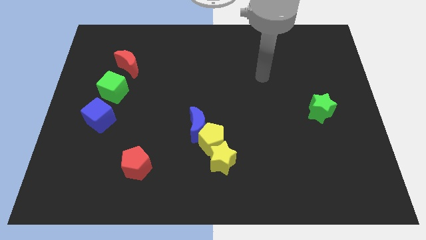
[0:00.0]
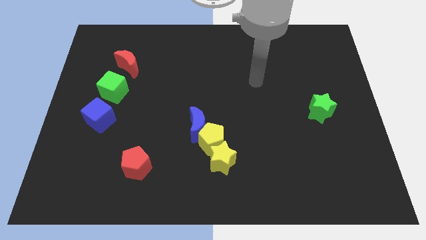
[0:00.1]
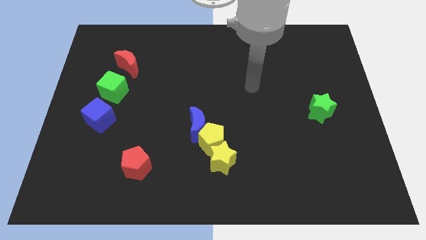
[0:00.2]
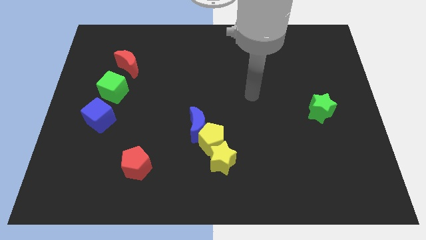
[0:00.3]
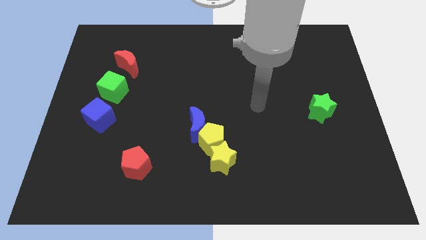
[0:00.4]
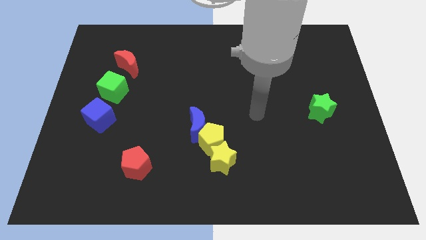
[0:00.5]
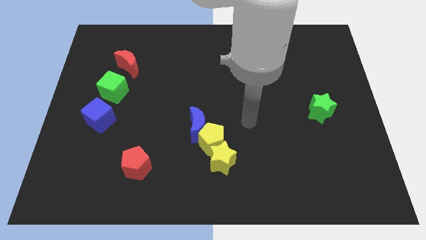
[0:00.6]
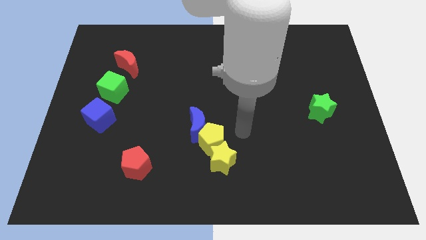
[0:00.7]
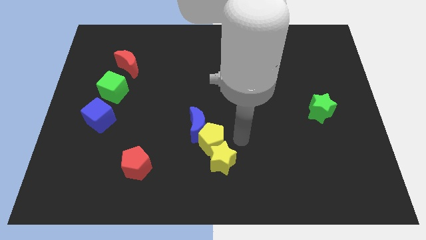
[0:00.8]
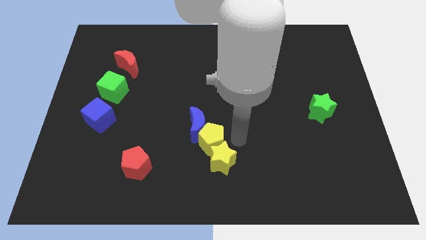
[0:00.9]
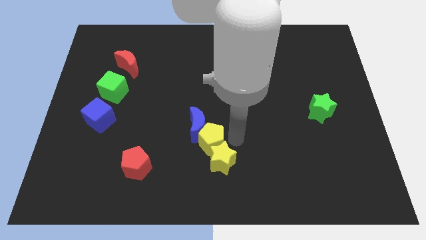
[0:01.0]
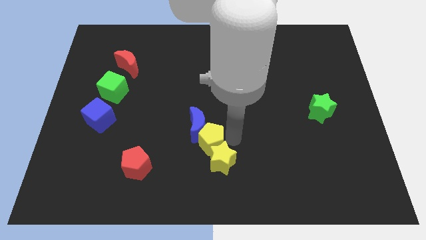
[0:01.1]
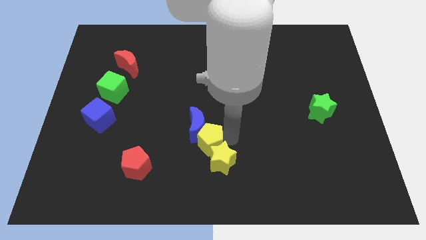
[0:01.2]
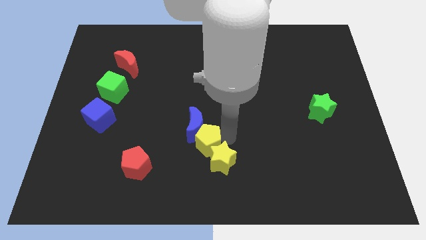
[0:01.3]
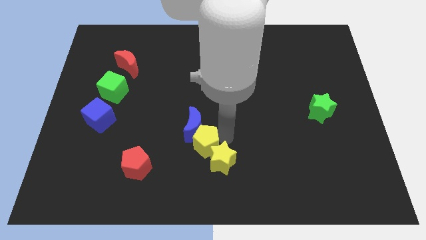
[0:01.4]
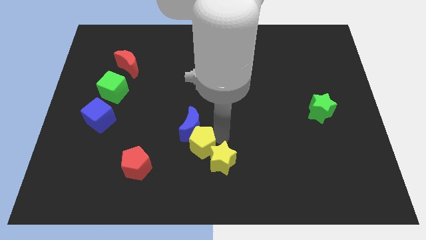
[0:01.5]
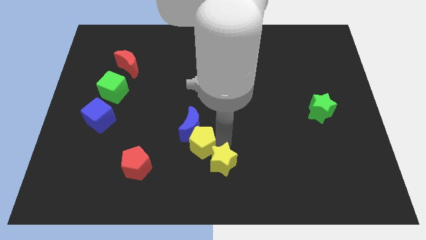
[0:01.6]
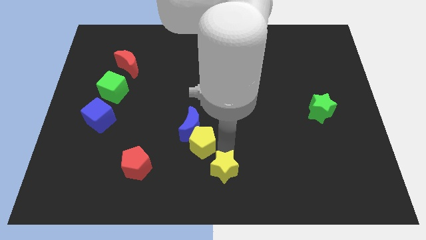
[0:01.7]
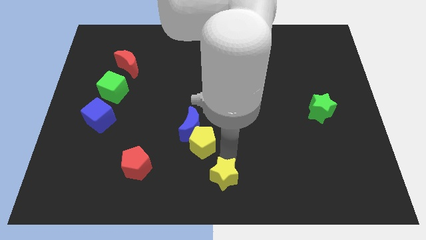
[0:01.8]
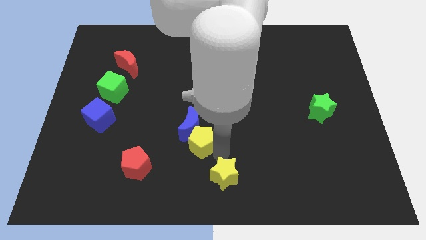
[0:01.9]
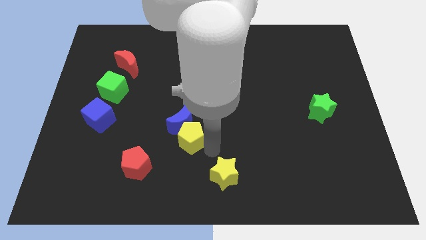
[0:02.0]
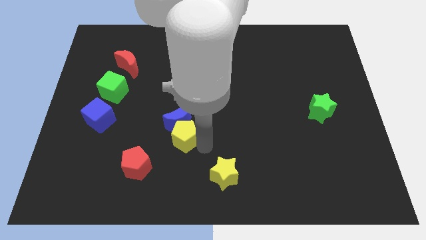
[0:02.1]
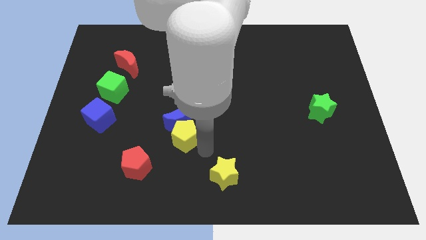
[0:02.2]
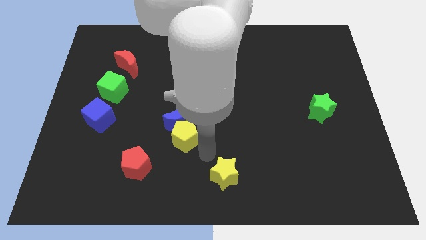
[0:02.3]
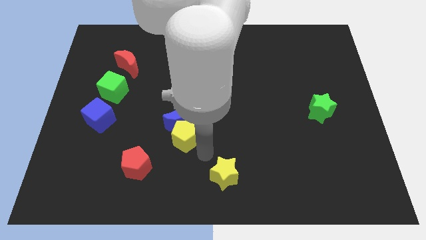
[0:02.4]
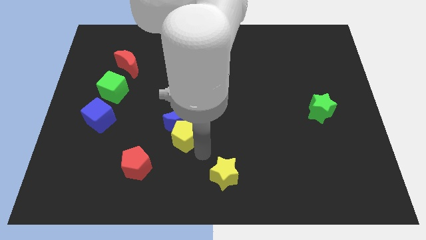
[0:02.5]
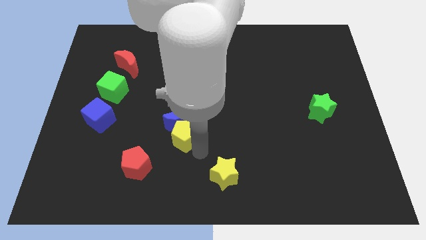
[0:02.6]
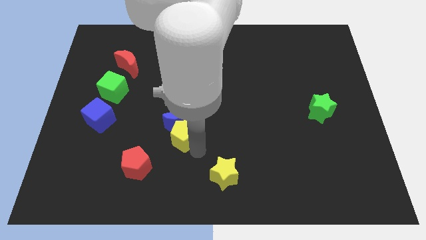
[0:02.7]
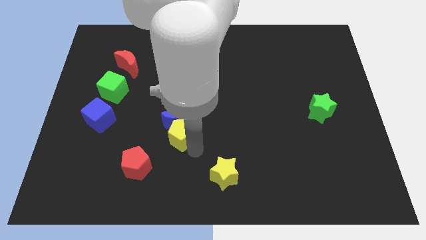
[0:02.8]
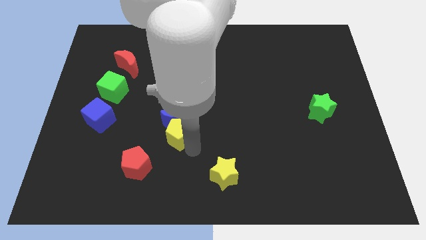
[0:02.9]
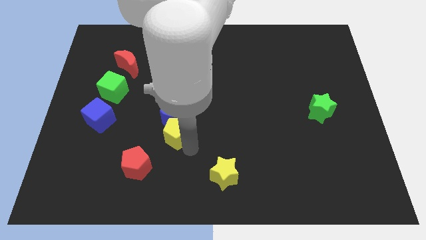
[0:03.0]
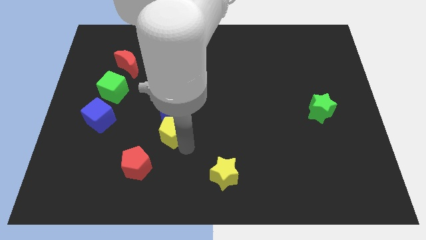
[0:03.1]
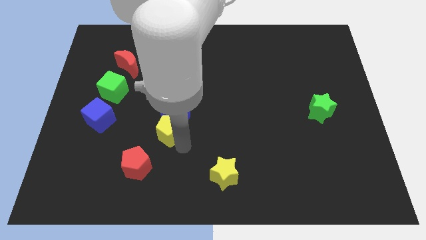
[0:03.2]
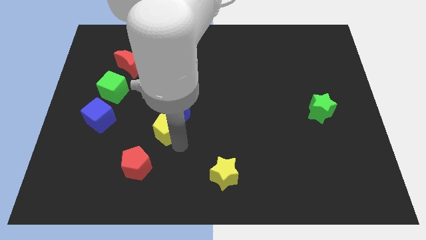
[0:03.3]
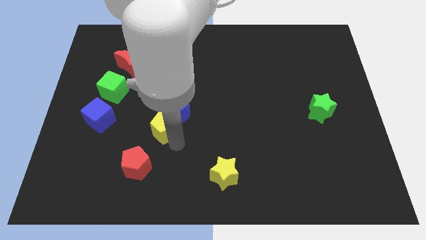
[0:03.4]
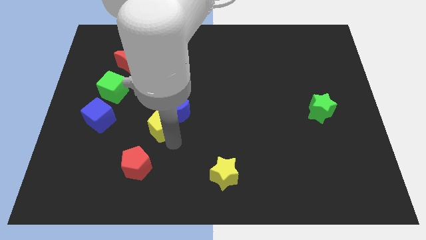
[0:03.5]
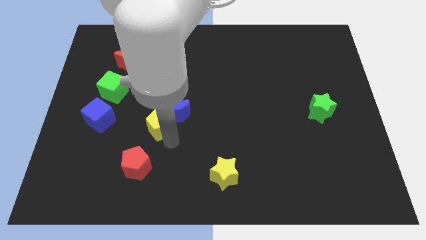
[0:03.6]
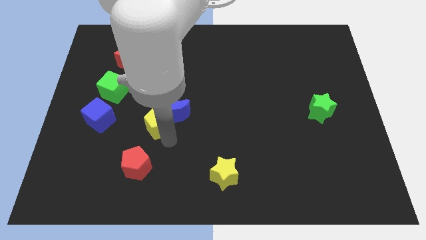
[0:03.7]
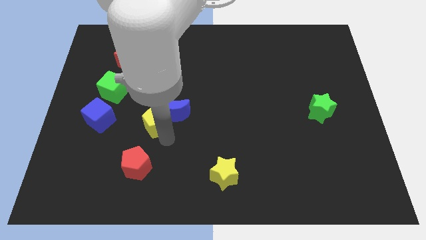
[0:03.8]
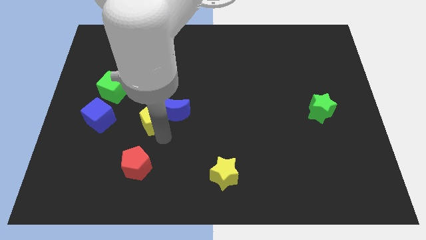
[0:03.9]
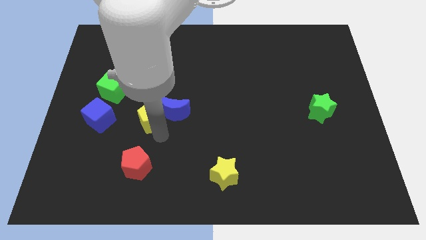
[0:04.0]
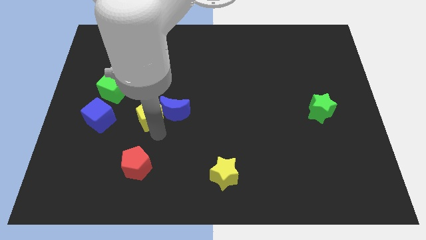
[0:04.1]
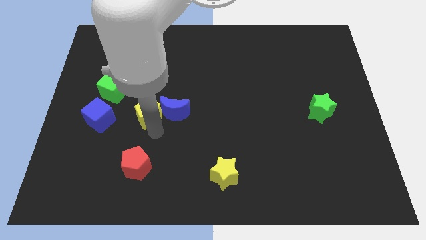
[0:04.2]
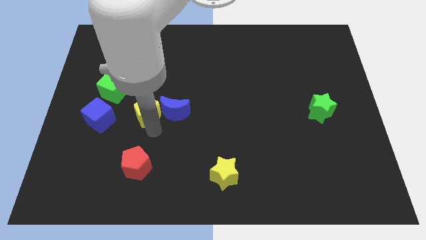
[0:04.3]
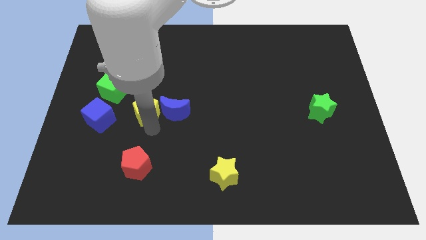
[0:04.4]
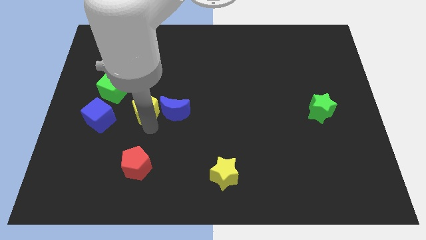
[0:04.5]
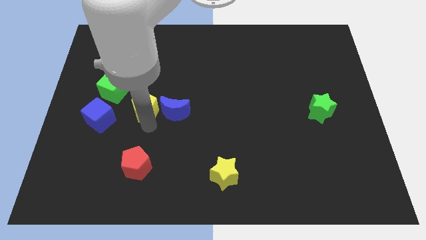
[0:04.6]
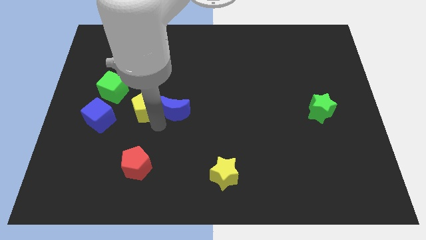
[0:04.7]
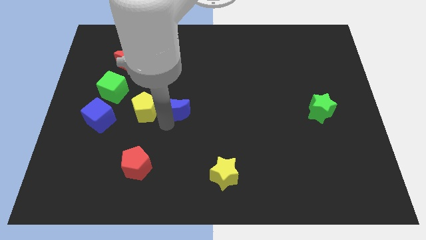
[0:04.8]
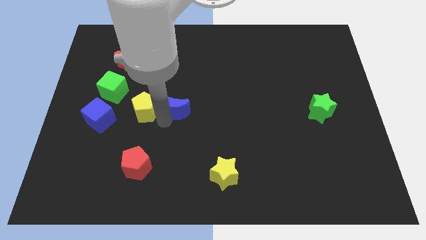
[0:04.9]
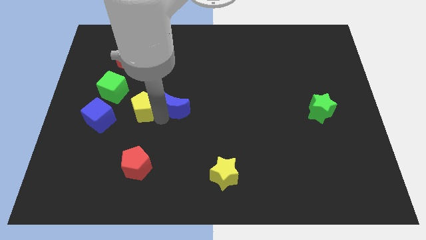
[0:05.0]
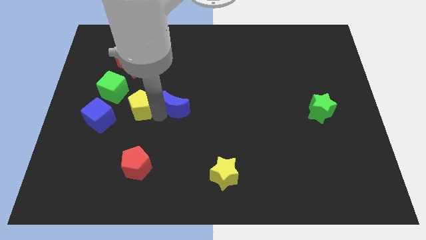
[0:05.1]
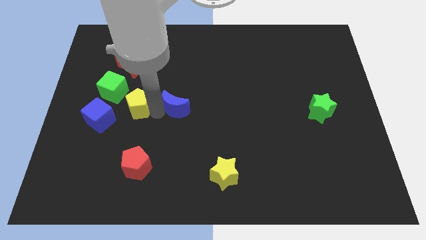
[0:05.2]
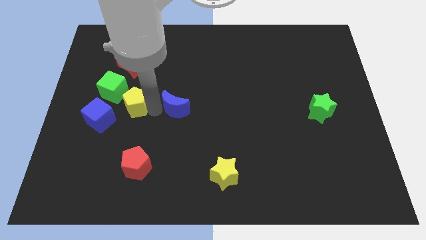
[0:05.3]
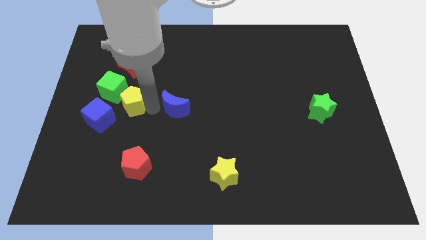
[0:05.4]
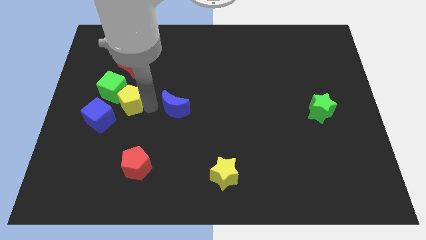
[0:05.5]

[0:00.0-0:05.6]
move the yellow pentagon next to the green cube

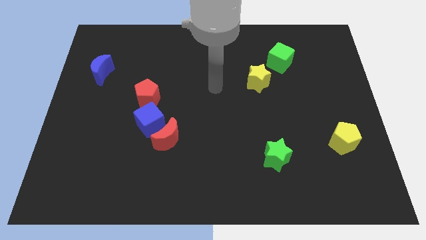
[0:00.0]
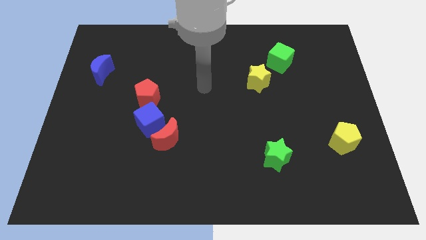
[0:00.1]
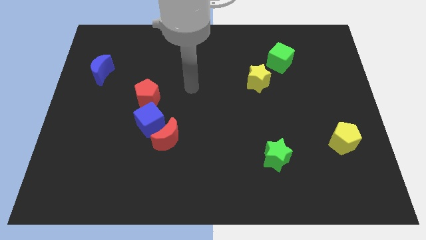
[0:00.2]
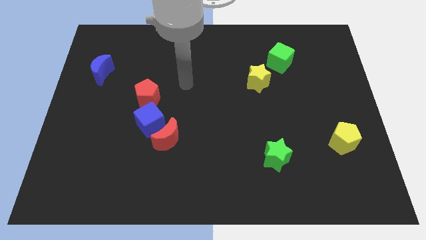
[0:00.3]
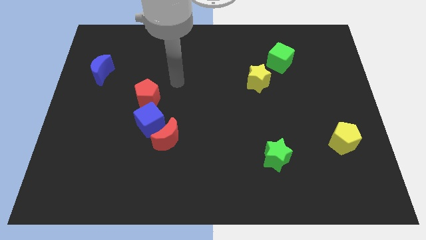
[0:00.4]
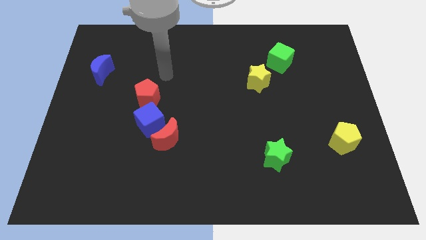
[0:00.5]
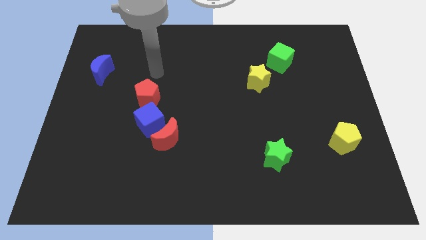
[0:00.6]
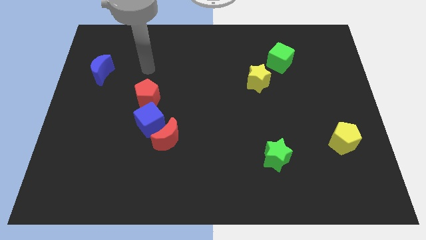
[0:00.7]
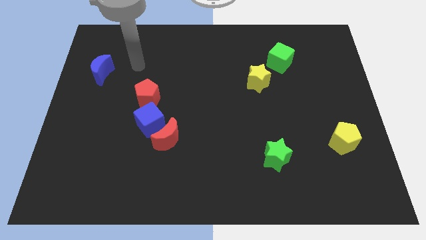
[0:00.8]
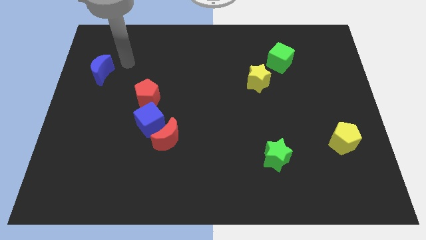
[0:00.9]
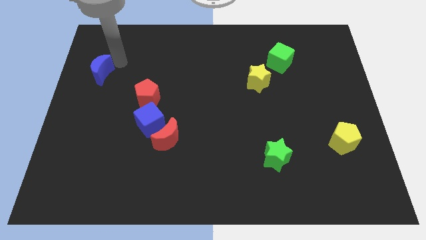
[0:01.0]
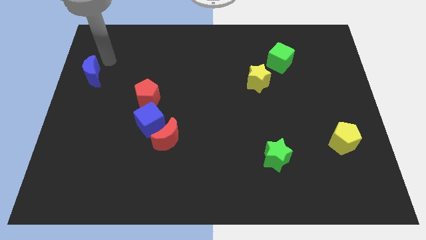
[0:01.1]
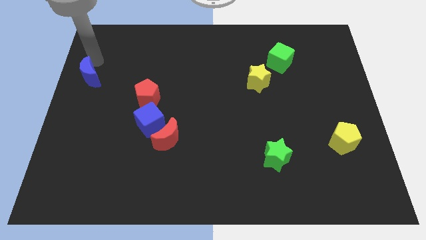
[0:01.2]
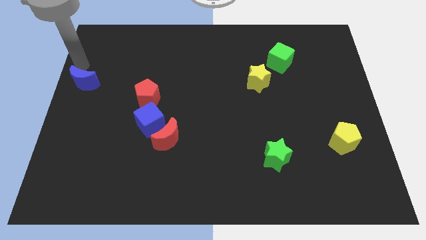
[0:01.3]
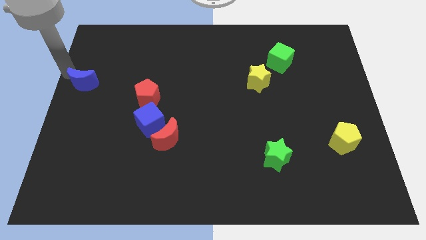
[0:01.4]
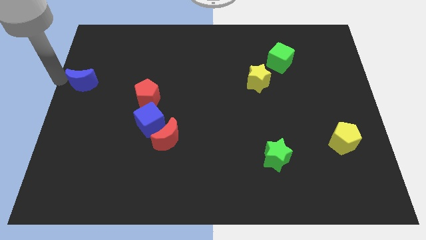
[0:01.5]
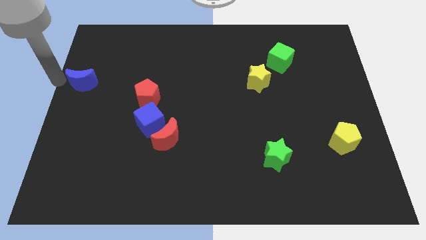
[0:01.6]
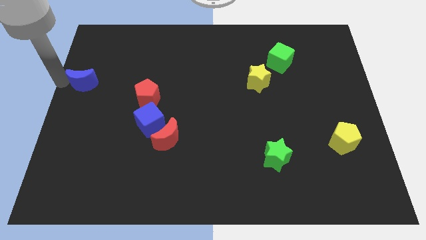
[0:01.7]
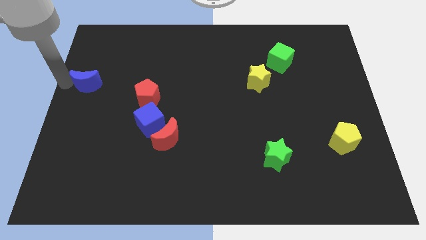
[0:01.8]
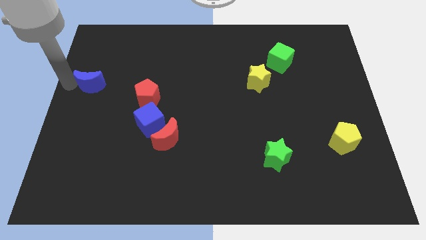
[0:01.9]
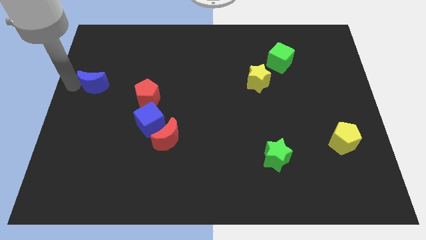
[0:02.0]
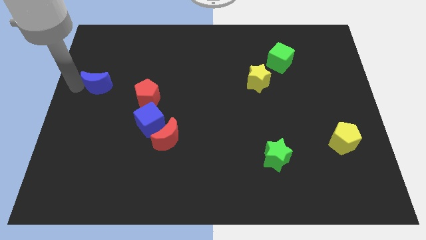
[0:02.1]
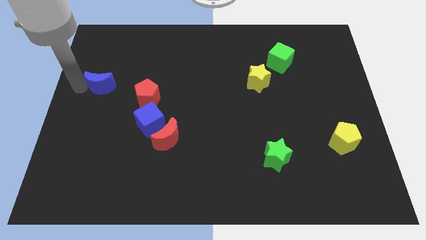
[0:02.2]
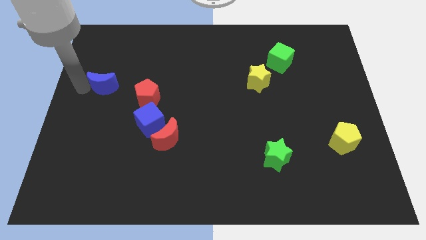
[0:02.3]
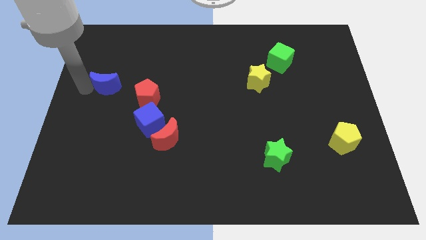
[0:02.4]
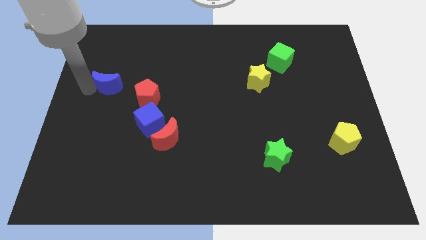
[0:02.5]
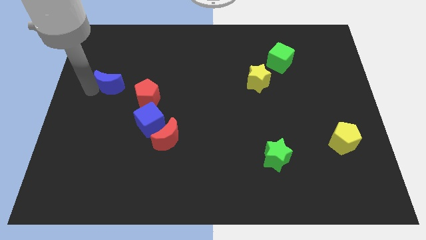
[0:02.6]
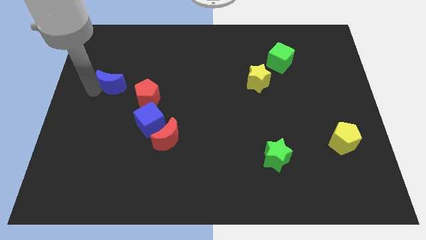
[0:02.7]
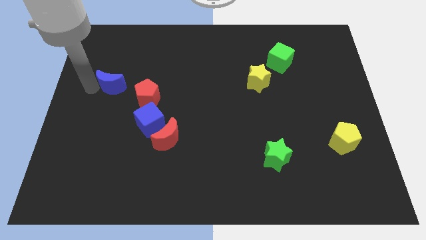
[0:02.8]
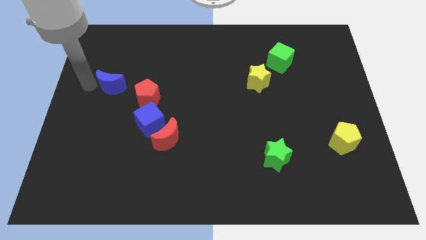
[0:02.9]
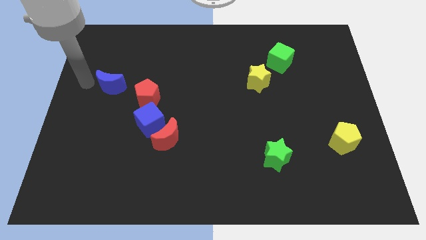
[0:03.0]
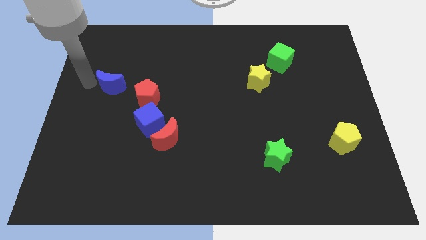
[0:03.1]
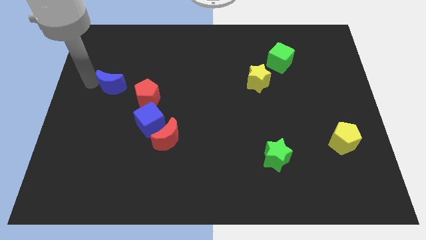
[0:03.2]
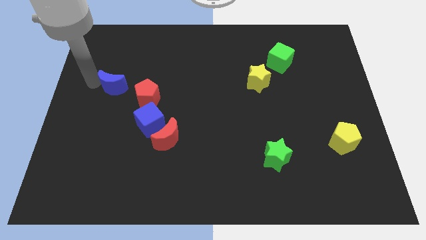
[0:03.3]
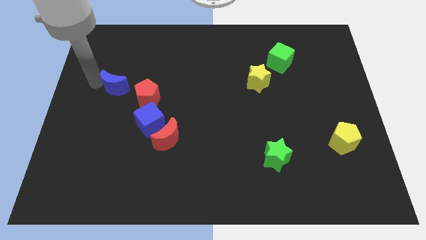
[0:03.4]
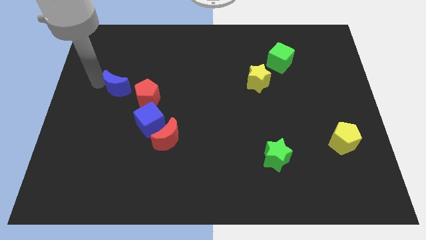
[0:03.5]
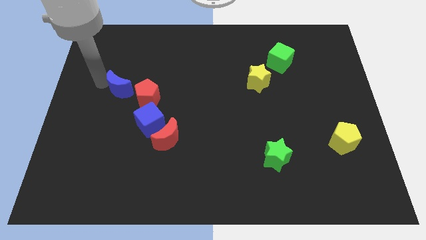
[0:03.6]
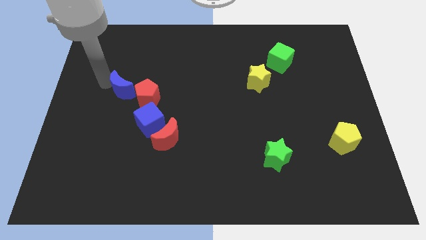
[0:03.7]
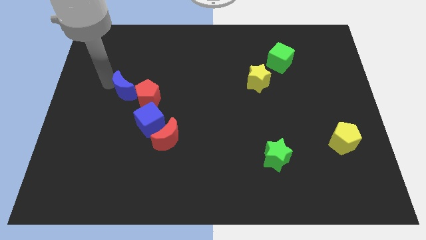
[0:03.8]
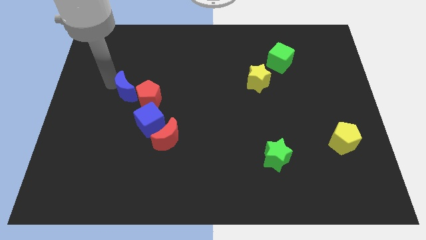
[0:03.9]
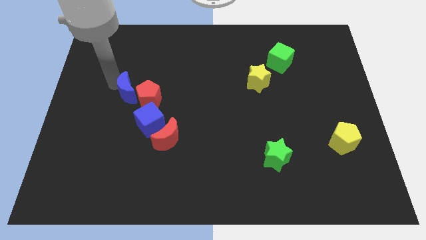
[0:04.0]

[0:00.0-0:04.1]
push the blue moon to the red pentagon
